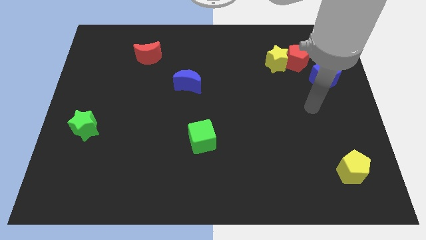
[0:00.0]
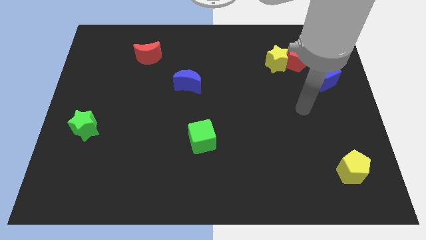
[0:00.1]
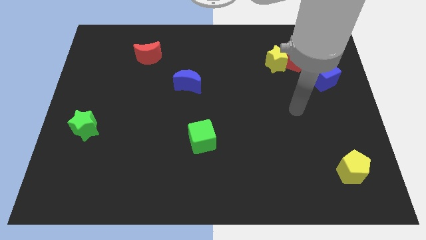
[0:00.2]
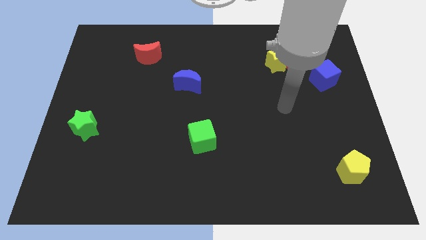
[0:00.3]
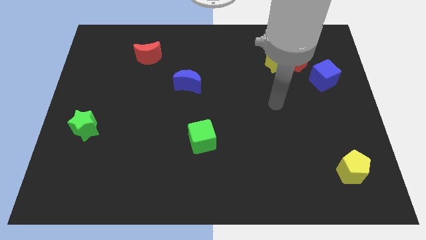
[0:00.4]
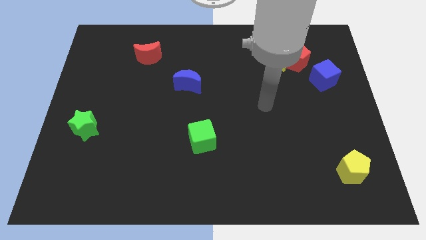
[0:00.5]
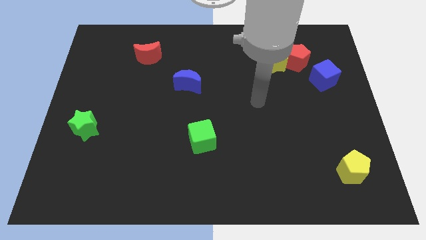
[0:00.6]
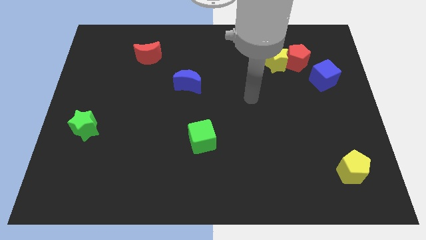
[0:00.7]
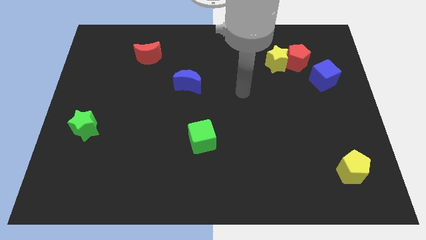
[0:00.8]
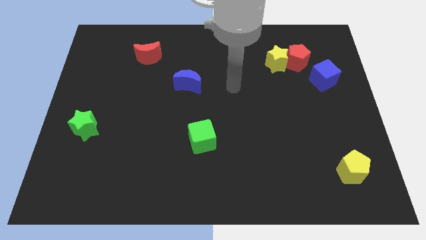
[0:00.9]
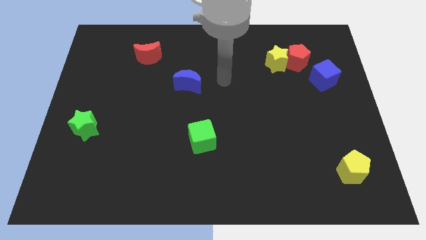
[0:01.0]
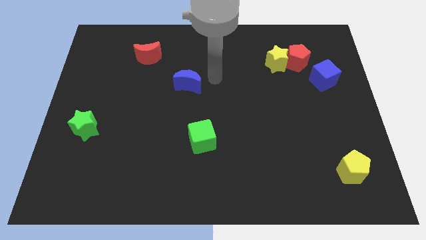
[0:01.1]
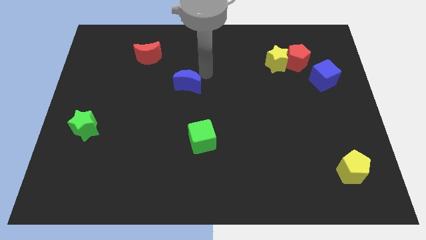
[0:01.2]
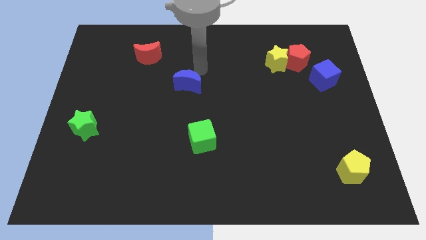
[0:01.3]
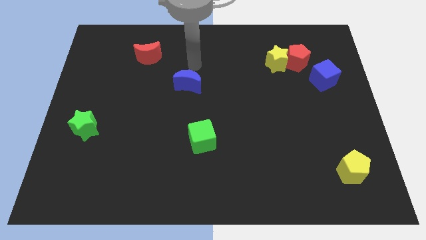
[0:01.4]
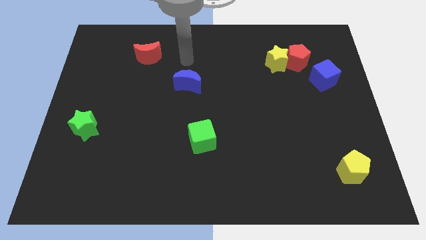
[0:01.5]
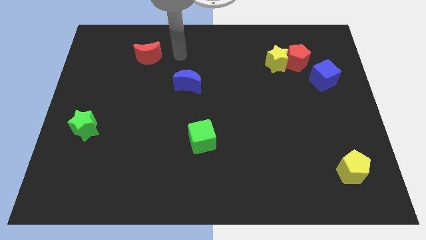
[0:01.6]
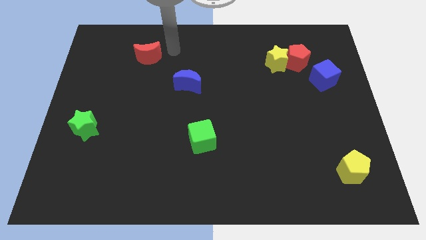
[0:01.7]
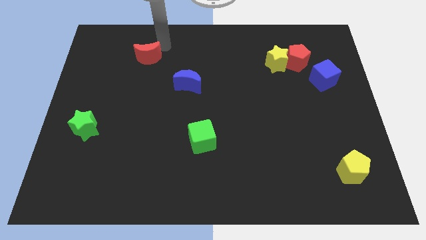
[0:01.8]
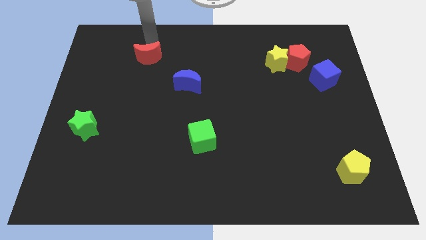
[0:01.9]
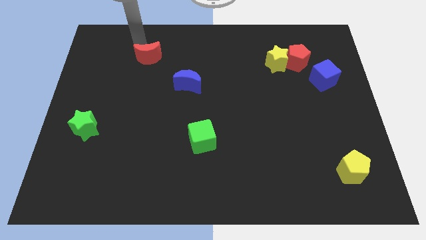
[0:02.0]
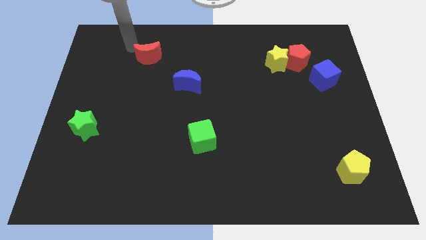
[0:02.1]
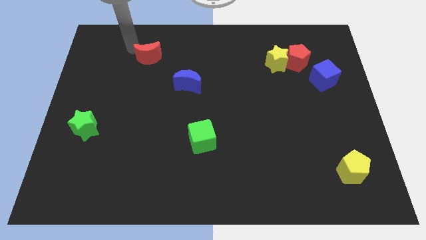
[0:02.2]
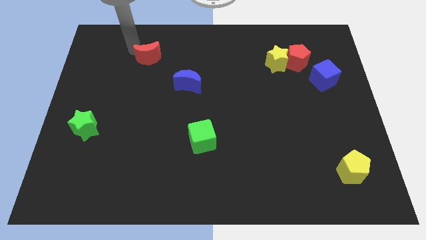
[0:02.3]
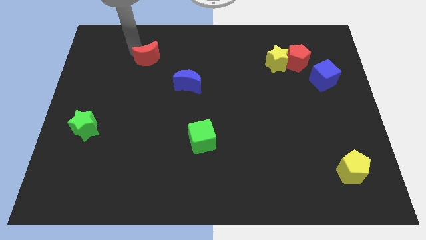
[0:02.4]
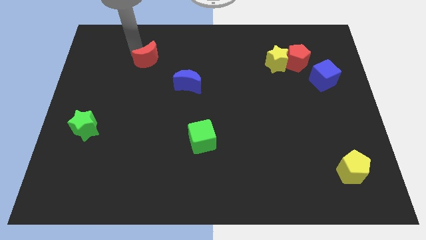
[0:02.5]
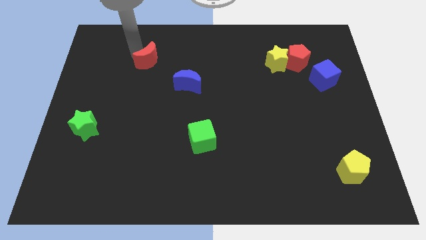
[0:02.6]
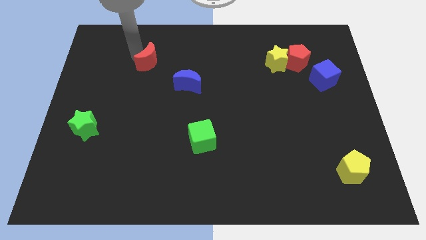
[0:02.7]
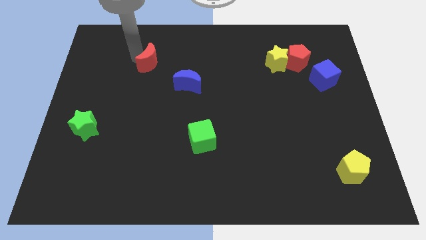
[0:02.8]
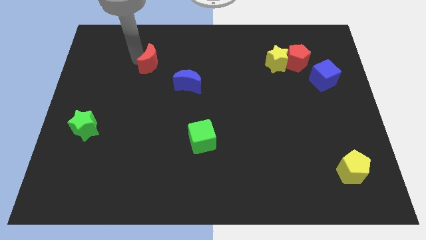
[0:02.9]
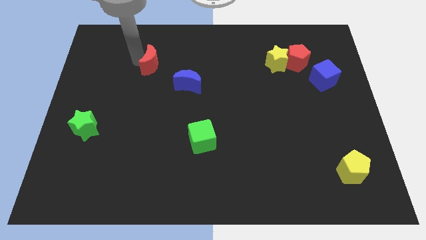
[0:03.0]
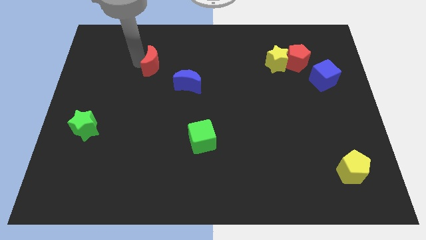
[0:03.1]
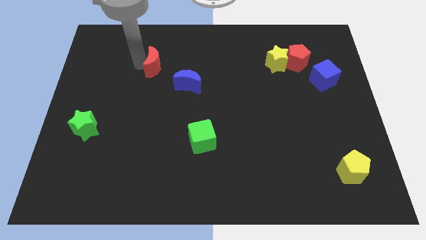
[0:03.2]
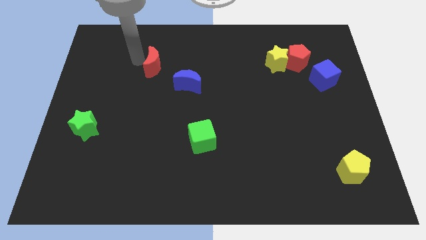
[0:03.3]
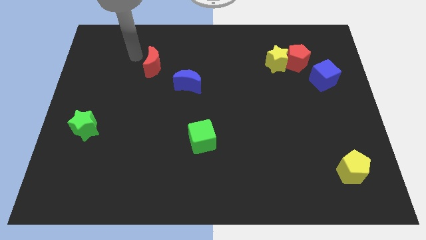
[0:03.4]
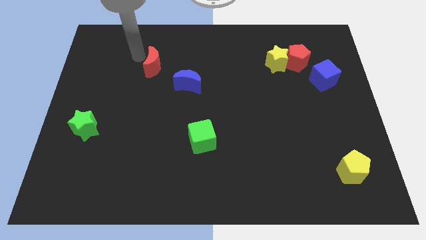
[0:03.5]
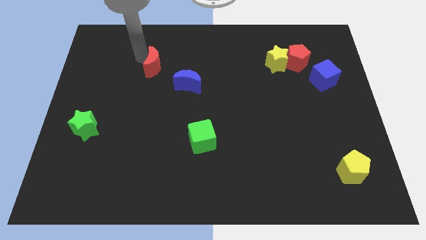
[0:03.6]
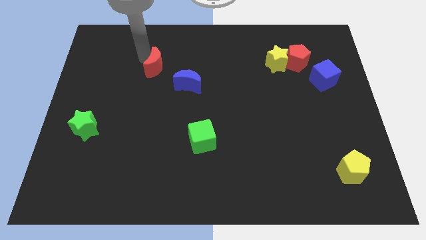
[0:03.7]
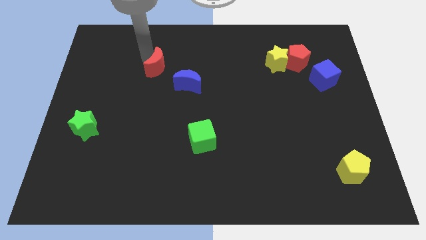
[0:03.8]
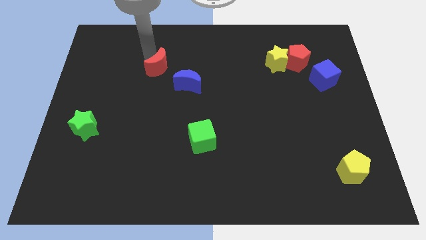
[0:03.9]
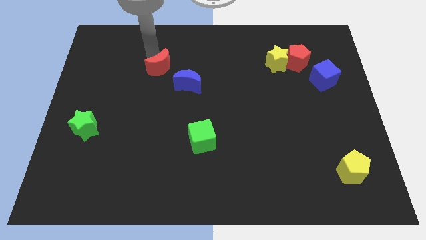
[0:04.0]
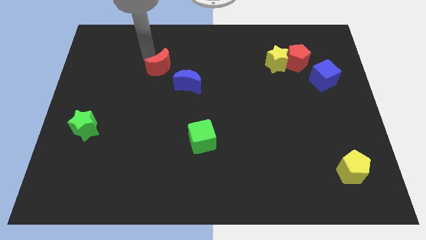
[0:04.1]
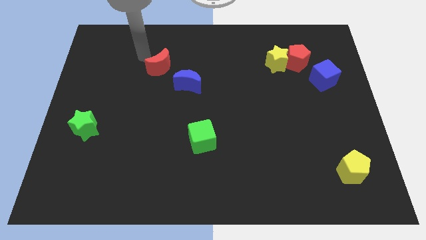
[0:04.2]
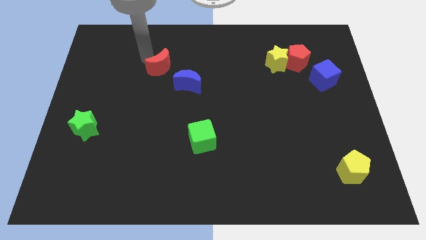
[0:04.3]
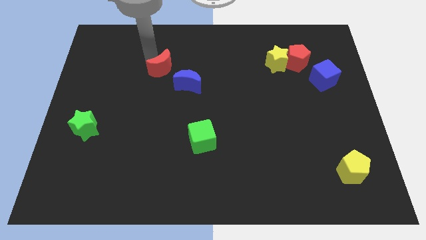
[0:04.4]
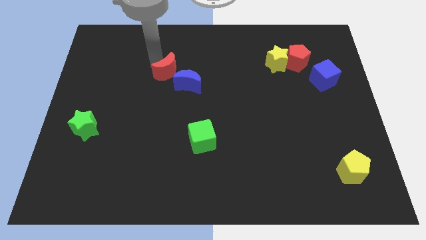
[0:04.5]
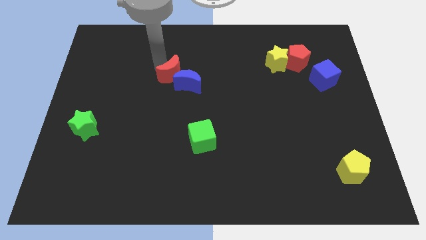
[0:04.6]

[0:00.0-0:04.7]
slide the red moon to the blue moon

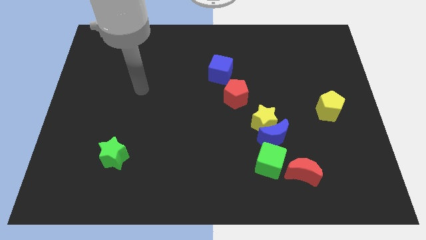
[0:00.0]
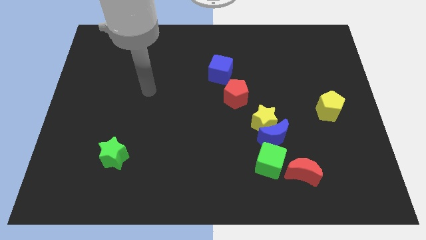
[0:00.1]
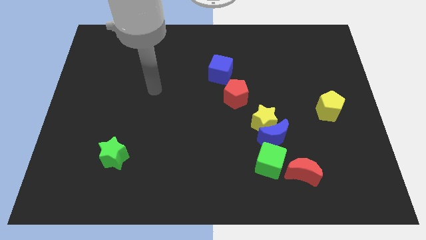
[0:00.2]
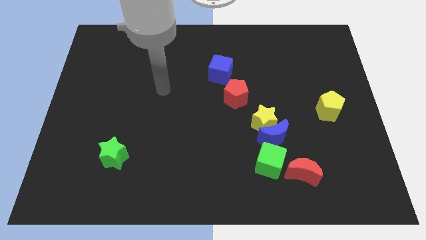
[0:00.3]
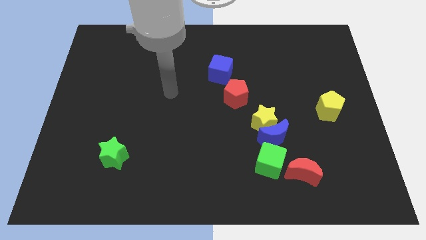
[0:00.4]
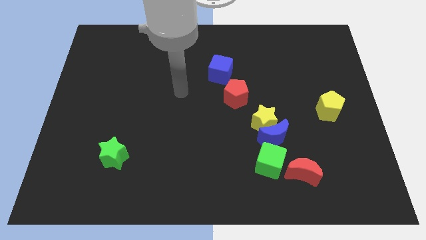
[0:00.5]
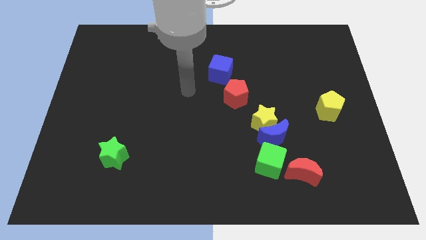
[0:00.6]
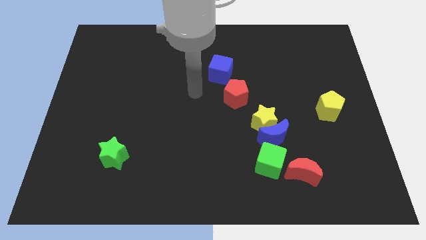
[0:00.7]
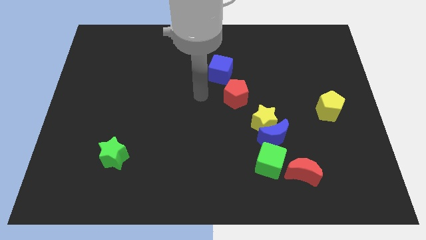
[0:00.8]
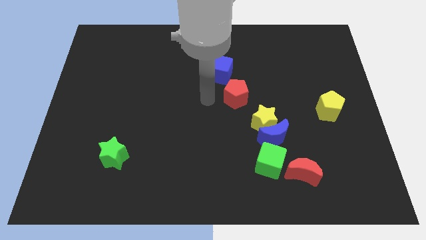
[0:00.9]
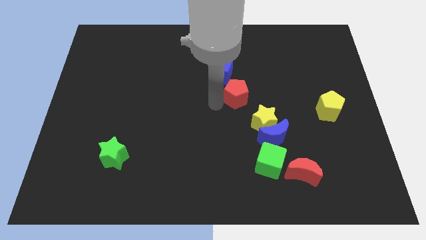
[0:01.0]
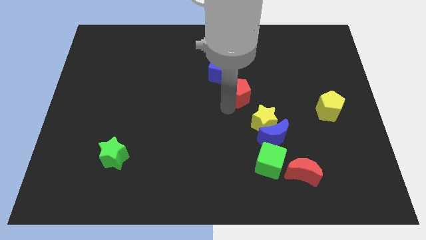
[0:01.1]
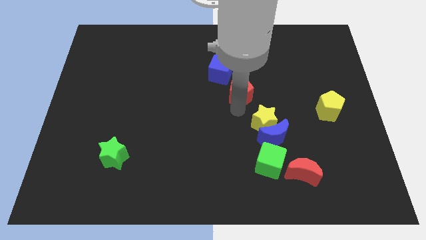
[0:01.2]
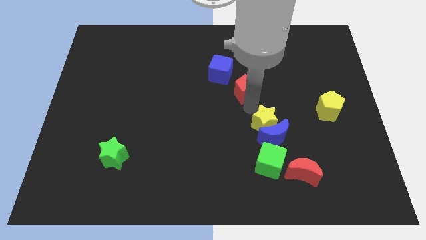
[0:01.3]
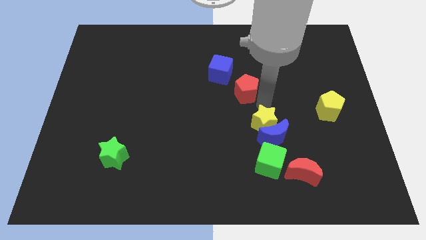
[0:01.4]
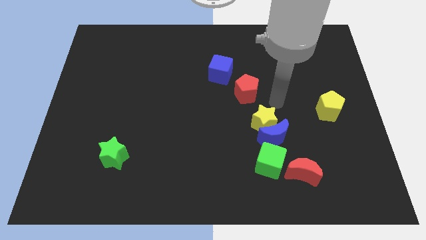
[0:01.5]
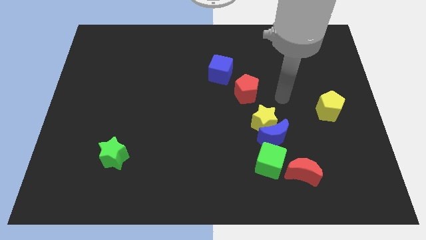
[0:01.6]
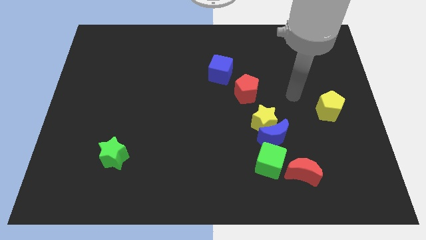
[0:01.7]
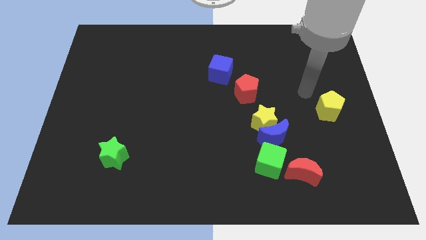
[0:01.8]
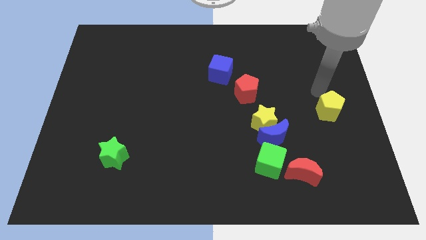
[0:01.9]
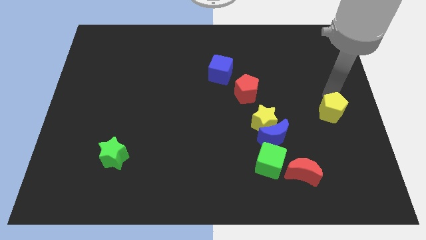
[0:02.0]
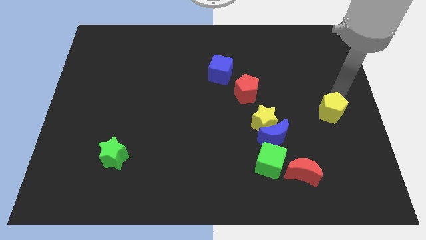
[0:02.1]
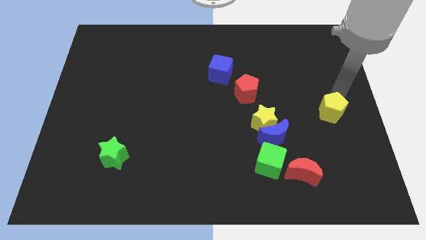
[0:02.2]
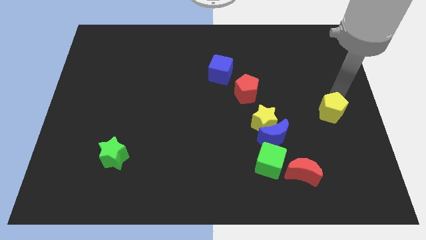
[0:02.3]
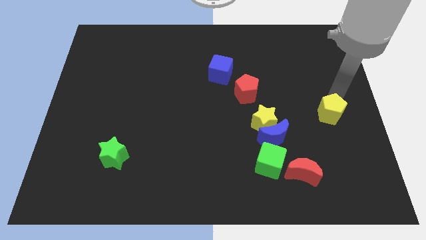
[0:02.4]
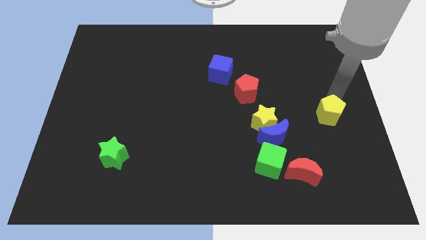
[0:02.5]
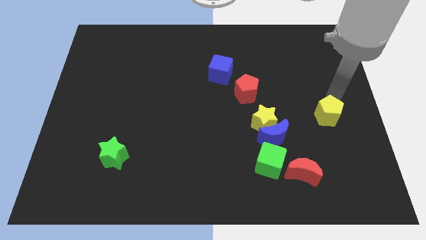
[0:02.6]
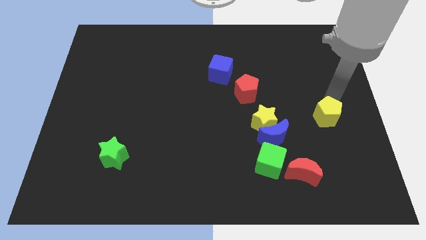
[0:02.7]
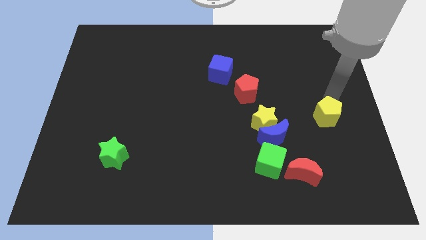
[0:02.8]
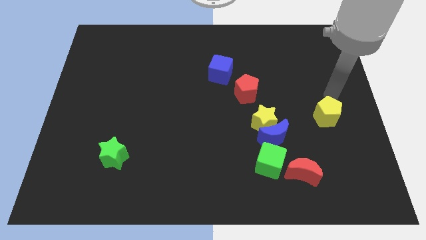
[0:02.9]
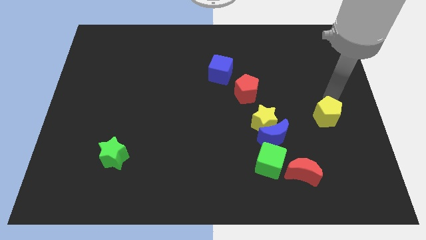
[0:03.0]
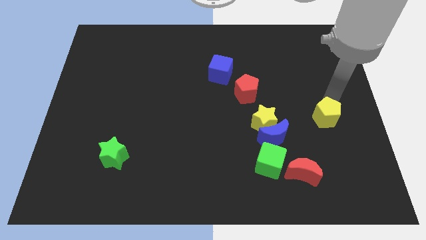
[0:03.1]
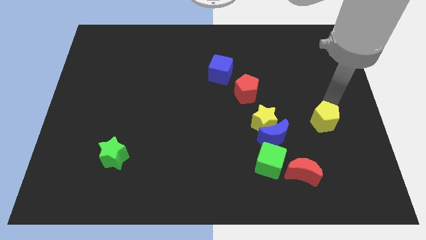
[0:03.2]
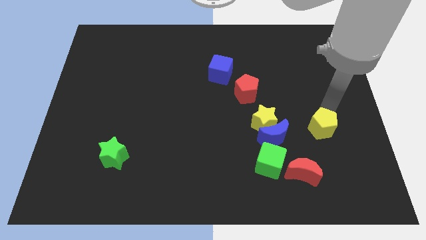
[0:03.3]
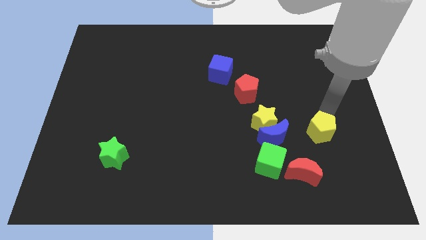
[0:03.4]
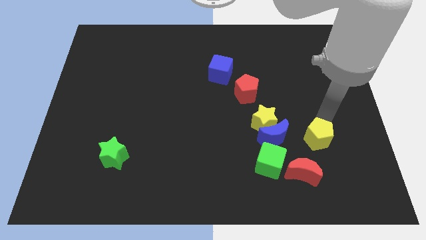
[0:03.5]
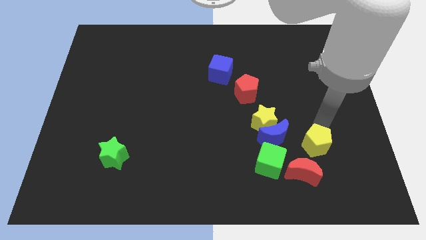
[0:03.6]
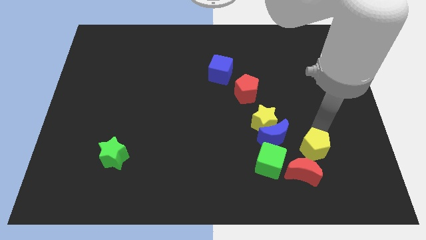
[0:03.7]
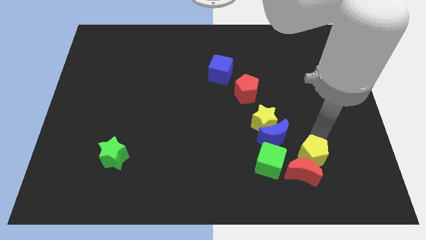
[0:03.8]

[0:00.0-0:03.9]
move the yellow pentagon to the red moon
